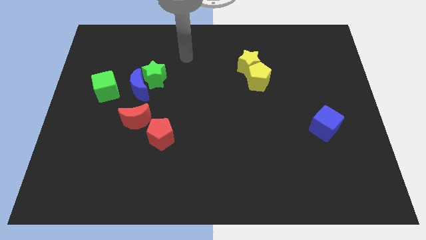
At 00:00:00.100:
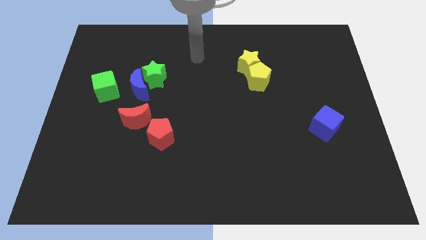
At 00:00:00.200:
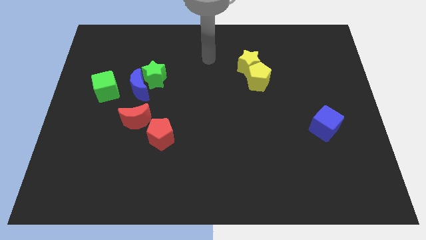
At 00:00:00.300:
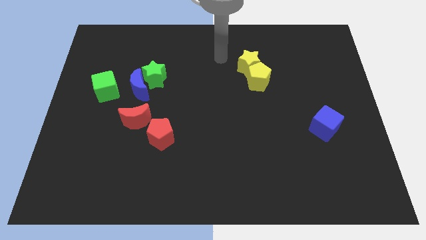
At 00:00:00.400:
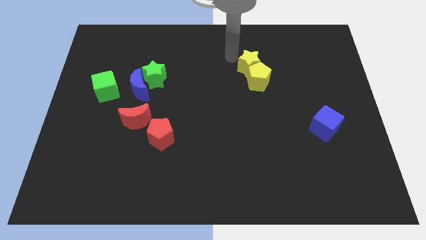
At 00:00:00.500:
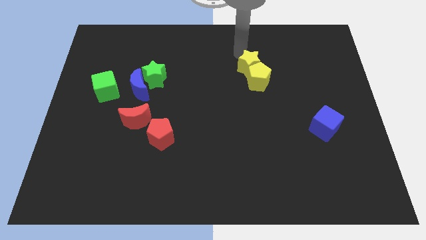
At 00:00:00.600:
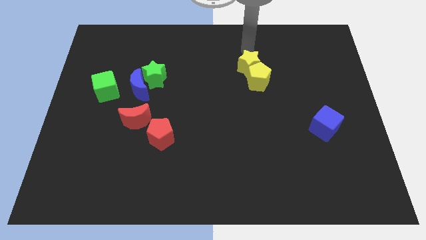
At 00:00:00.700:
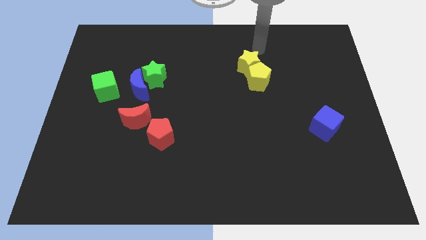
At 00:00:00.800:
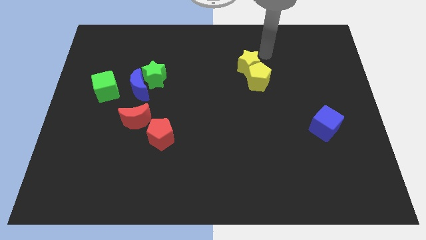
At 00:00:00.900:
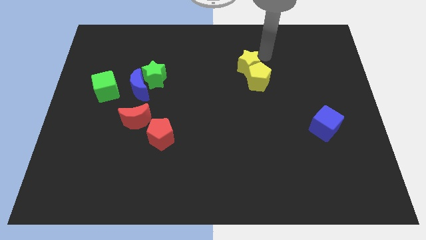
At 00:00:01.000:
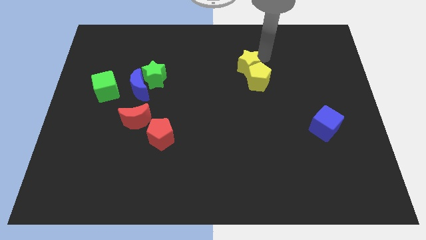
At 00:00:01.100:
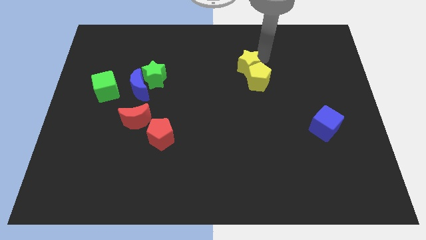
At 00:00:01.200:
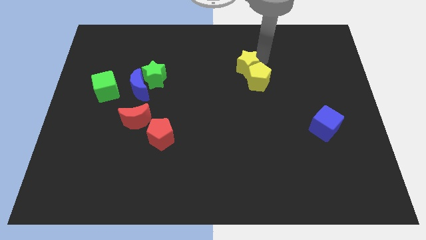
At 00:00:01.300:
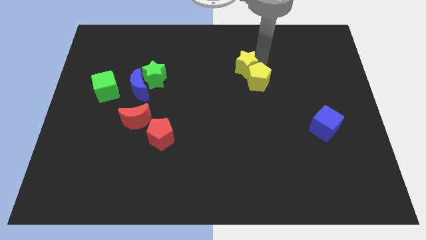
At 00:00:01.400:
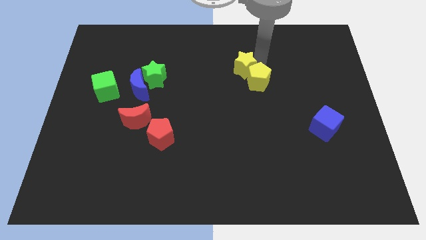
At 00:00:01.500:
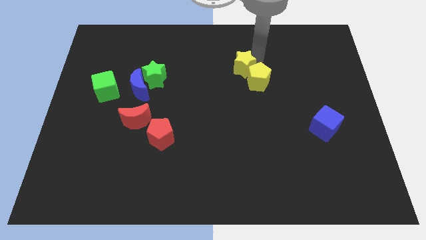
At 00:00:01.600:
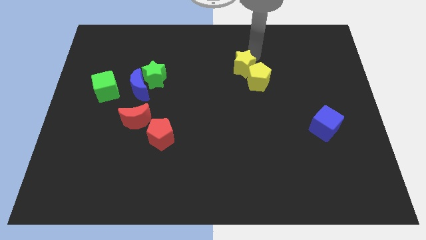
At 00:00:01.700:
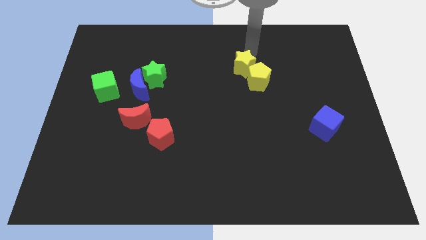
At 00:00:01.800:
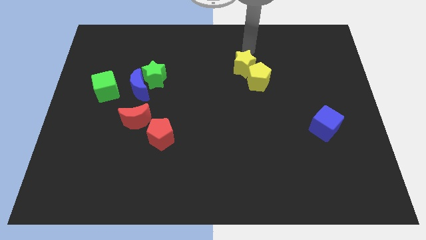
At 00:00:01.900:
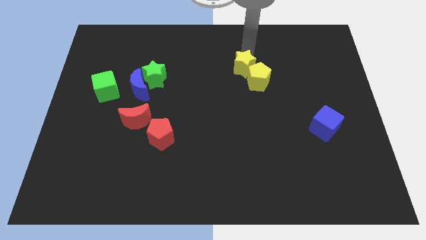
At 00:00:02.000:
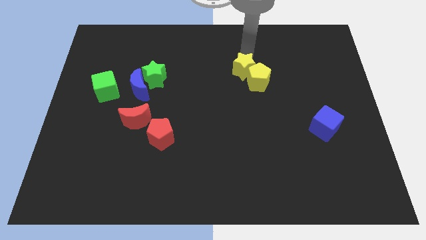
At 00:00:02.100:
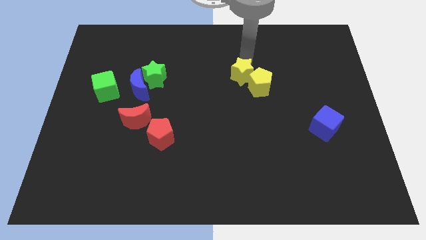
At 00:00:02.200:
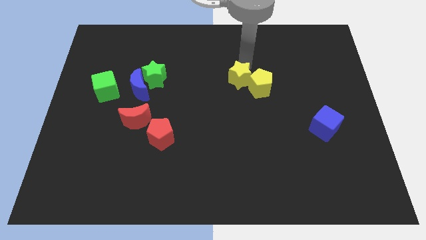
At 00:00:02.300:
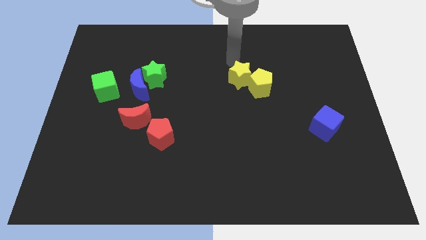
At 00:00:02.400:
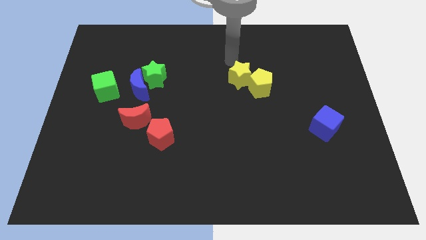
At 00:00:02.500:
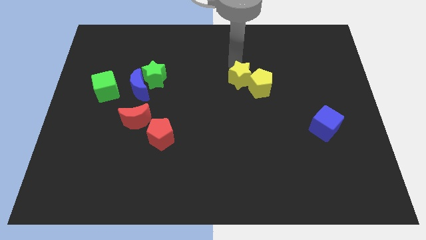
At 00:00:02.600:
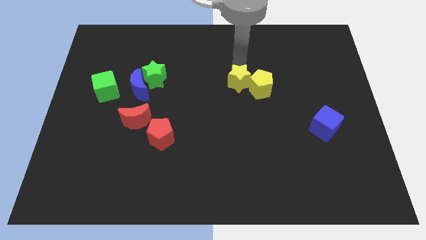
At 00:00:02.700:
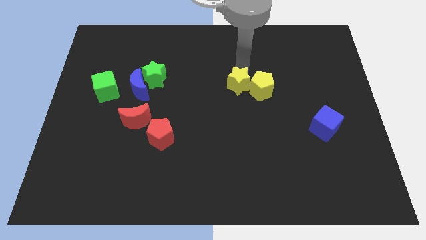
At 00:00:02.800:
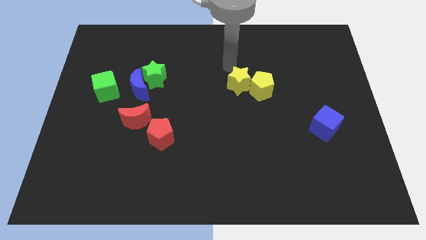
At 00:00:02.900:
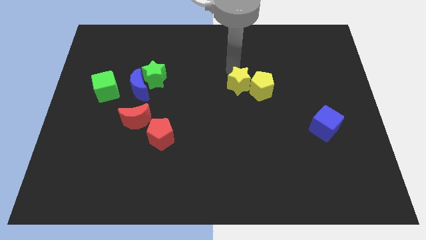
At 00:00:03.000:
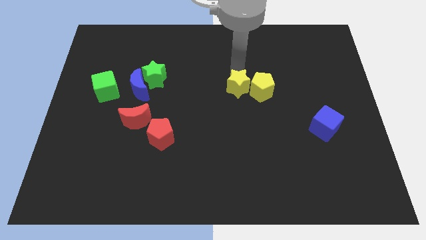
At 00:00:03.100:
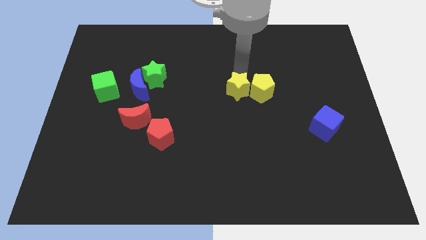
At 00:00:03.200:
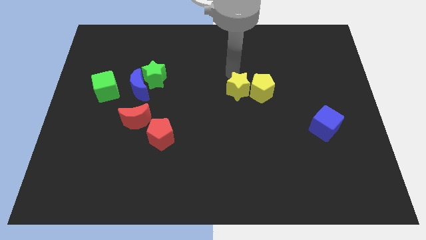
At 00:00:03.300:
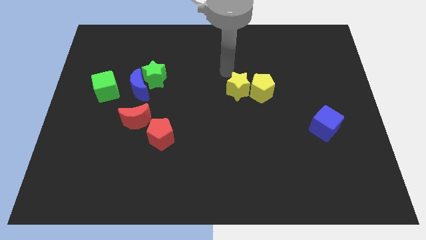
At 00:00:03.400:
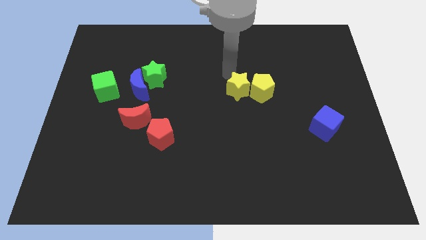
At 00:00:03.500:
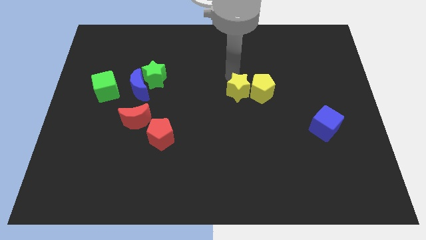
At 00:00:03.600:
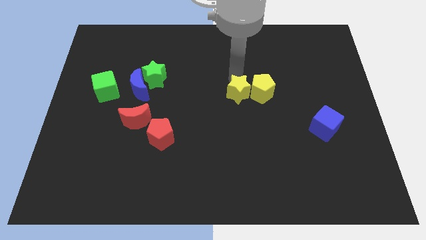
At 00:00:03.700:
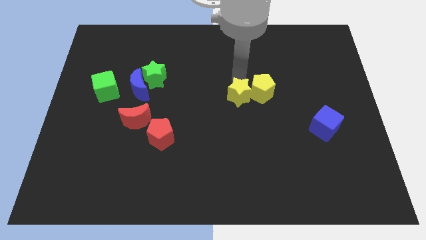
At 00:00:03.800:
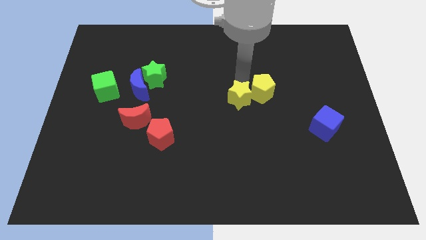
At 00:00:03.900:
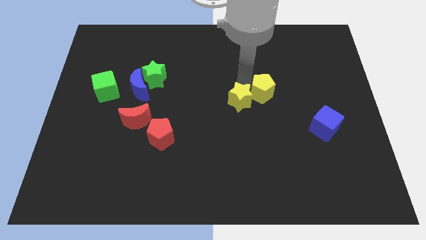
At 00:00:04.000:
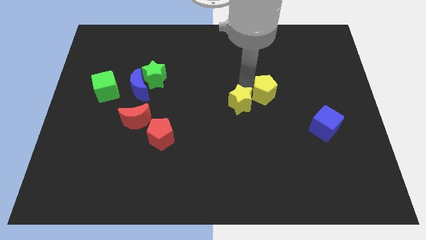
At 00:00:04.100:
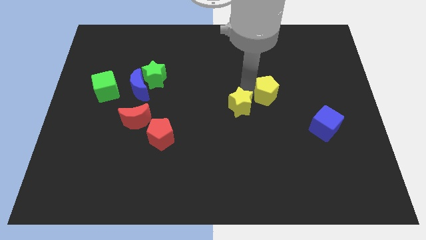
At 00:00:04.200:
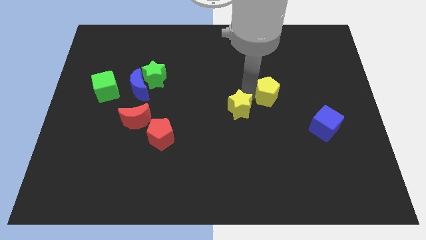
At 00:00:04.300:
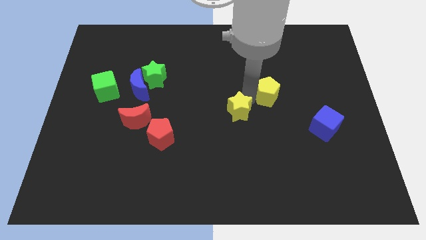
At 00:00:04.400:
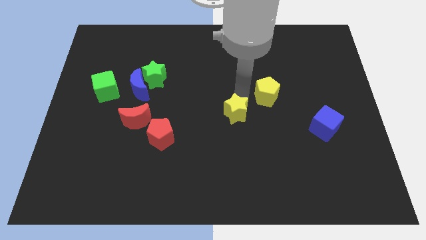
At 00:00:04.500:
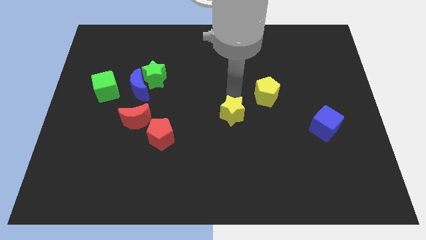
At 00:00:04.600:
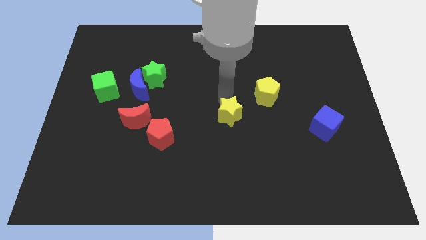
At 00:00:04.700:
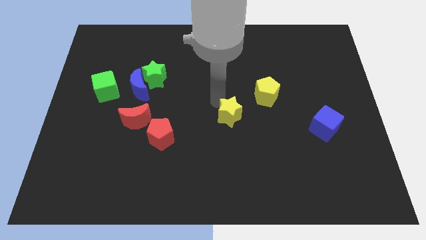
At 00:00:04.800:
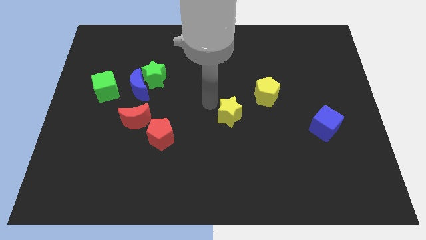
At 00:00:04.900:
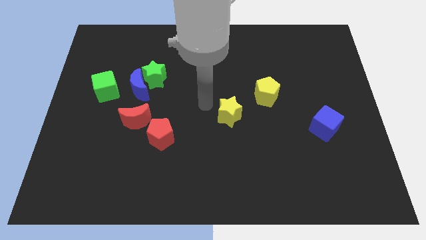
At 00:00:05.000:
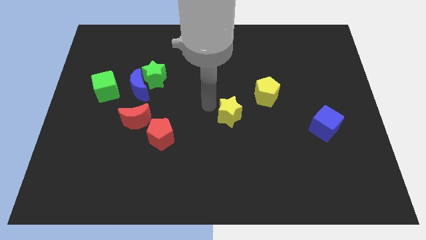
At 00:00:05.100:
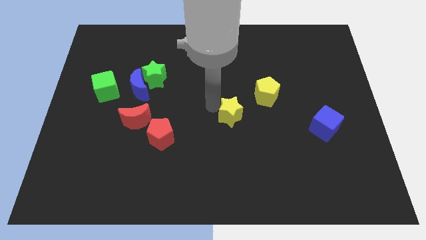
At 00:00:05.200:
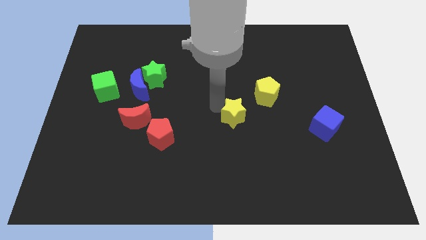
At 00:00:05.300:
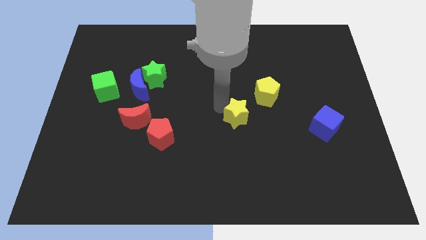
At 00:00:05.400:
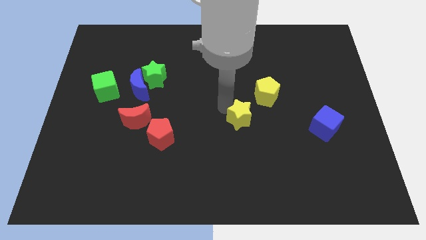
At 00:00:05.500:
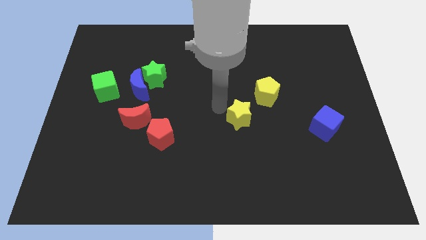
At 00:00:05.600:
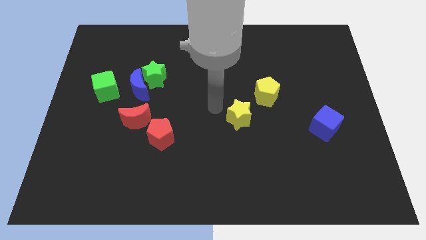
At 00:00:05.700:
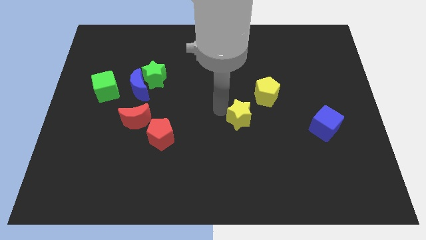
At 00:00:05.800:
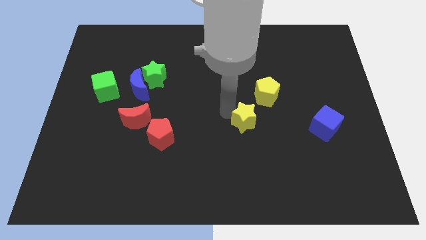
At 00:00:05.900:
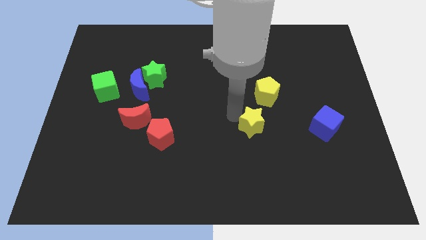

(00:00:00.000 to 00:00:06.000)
push the yellow star to the bottom of the yellow pentagon

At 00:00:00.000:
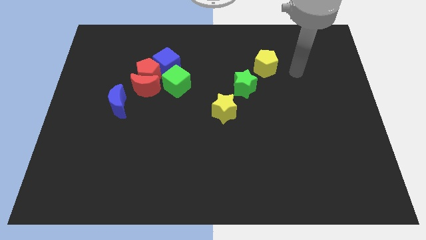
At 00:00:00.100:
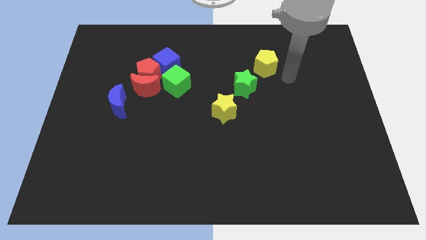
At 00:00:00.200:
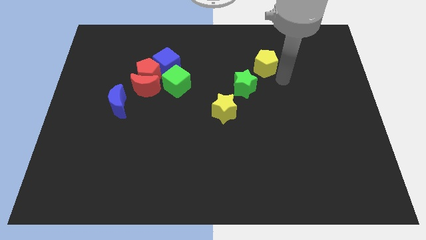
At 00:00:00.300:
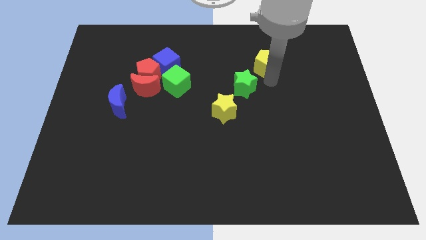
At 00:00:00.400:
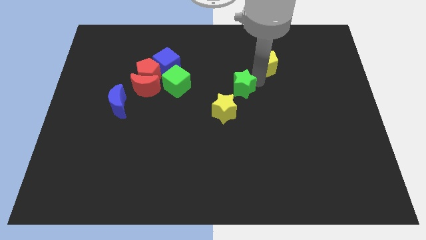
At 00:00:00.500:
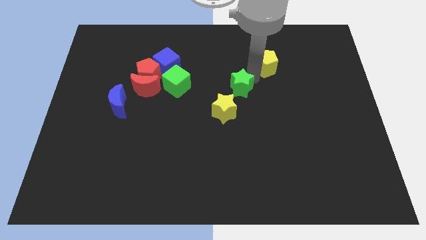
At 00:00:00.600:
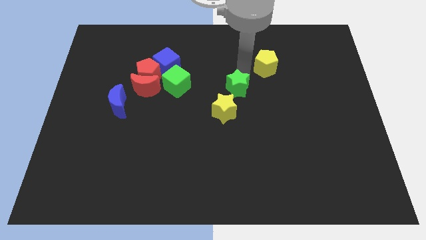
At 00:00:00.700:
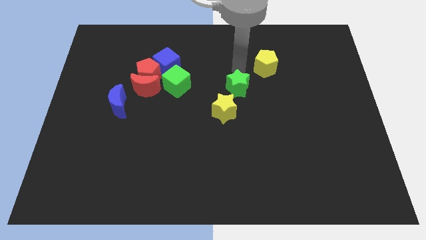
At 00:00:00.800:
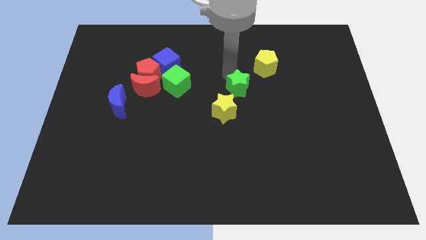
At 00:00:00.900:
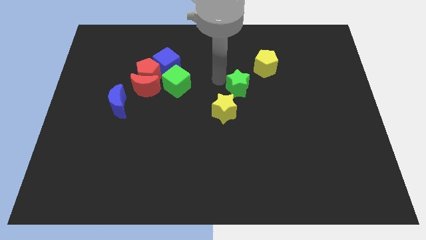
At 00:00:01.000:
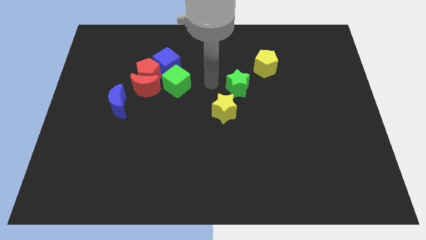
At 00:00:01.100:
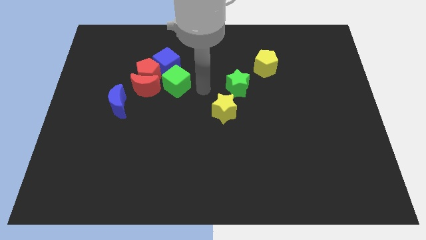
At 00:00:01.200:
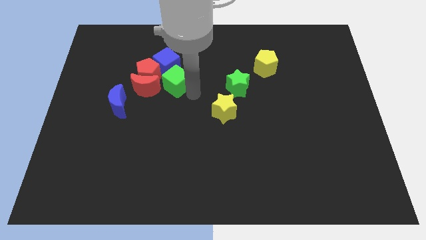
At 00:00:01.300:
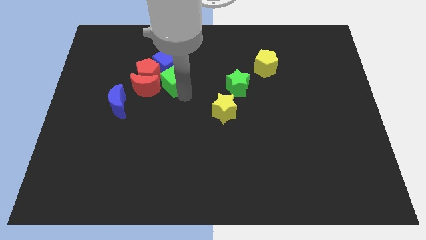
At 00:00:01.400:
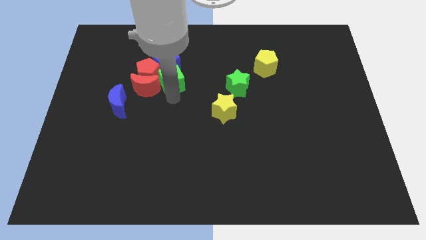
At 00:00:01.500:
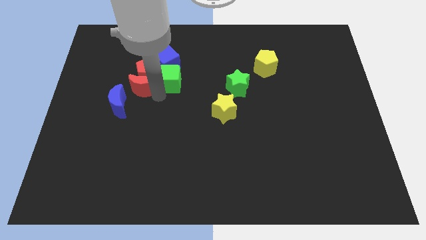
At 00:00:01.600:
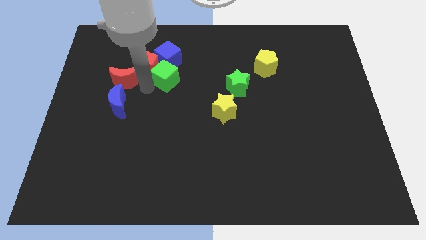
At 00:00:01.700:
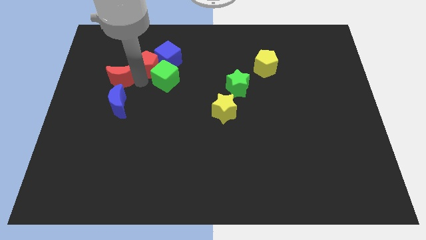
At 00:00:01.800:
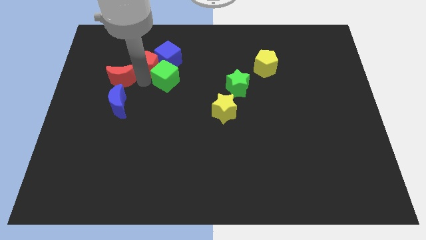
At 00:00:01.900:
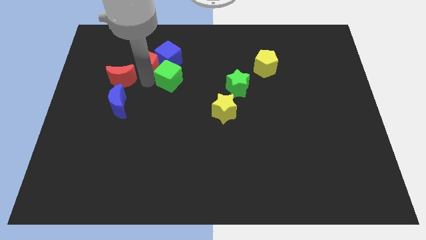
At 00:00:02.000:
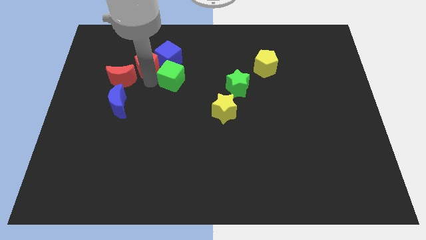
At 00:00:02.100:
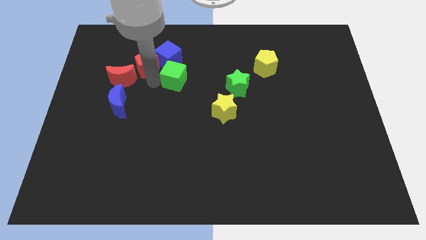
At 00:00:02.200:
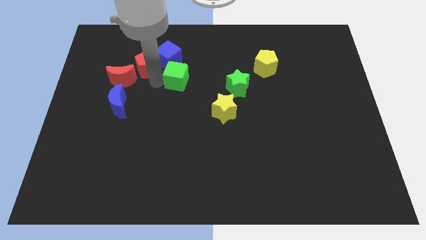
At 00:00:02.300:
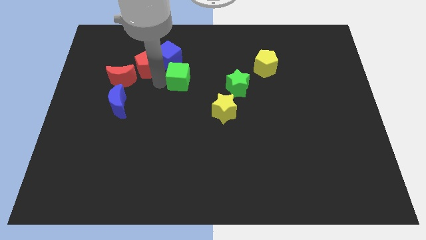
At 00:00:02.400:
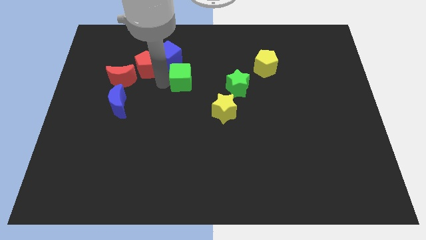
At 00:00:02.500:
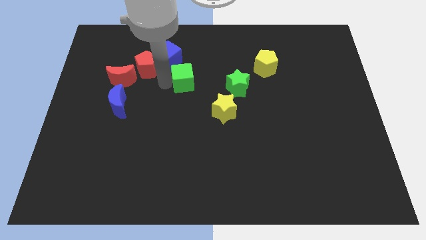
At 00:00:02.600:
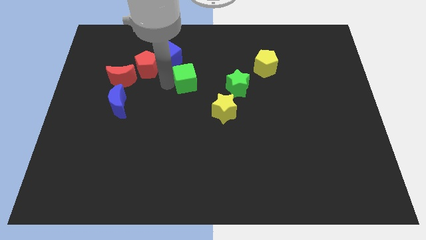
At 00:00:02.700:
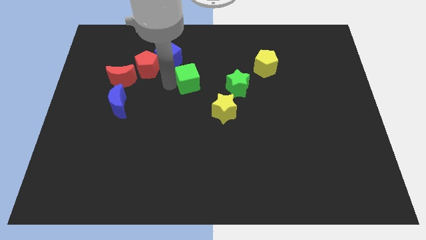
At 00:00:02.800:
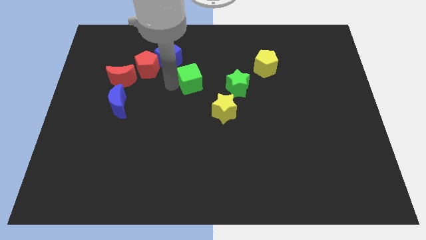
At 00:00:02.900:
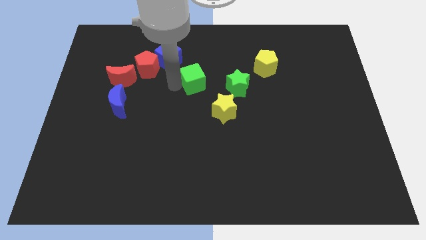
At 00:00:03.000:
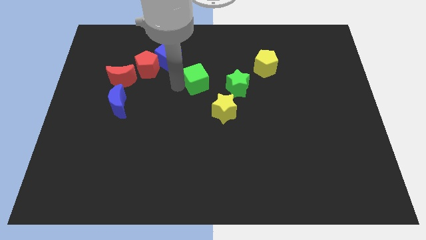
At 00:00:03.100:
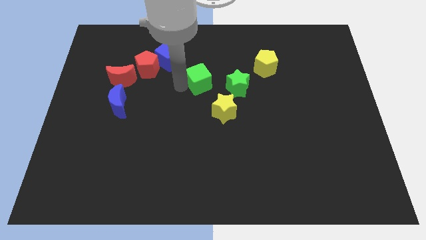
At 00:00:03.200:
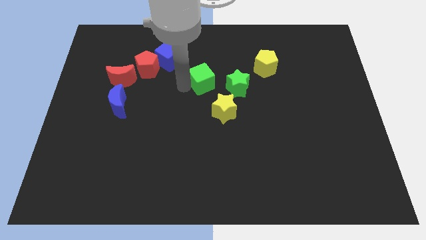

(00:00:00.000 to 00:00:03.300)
move the green cube diagonally up and to the left of the green star
